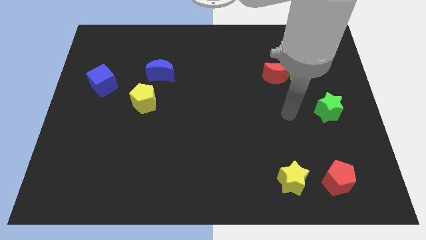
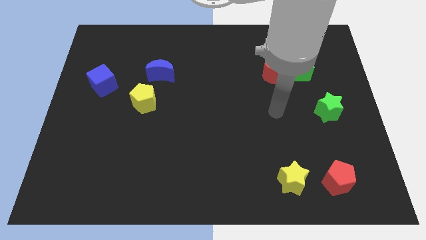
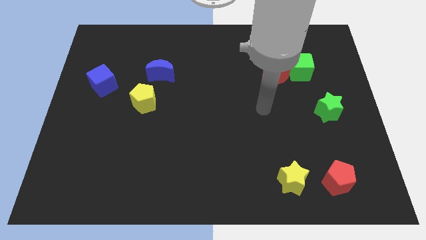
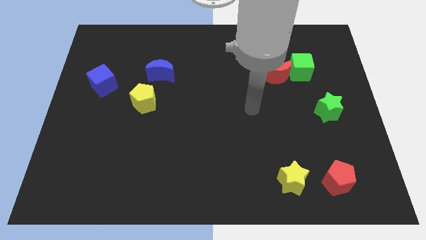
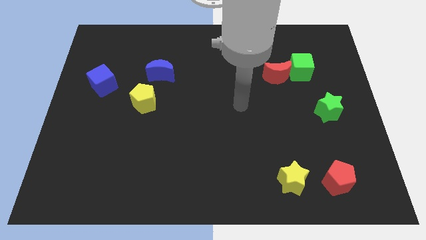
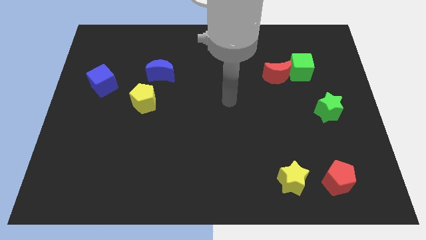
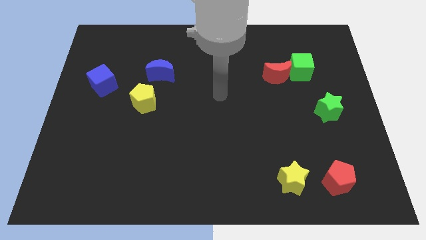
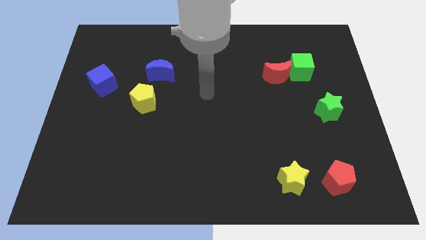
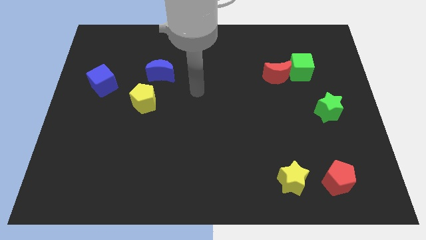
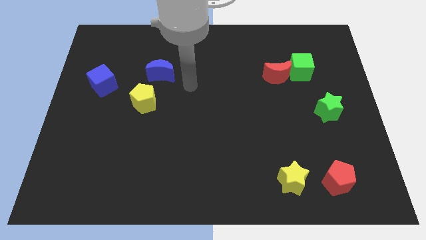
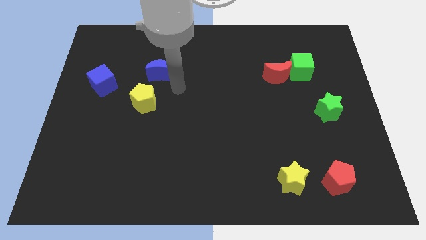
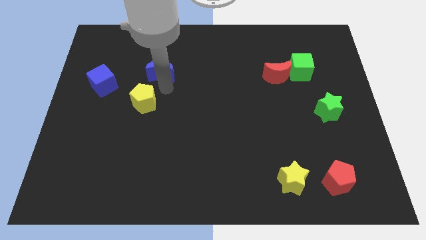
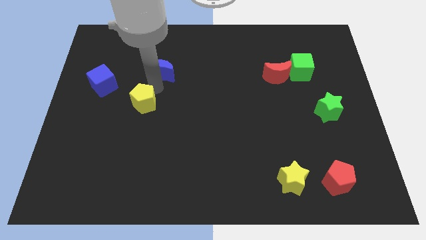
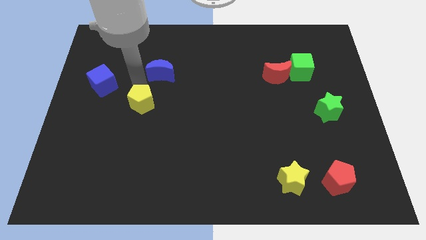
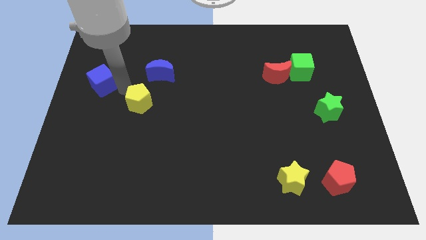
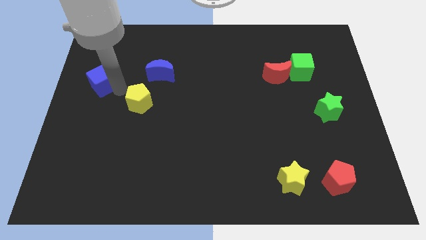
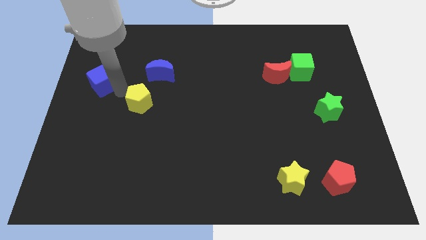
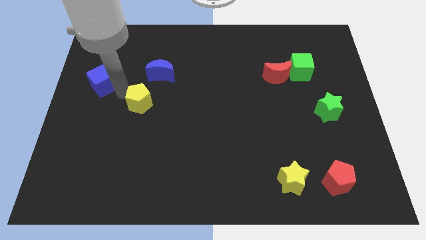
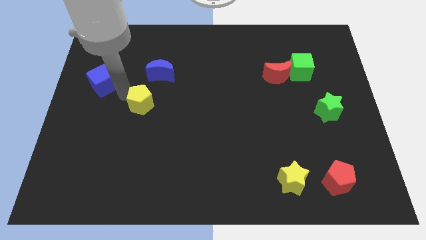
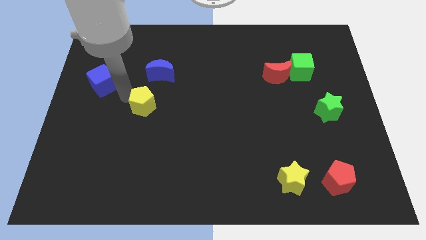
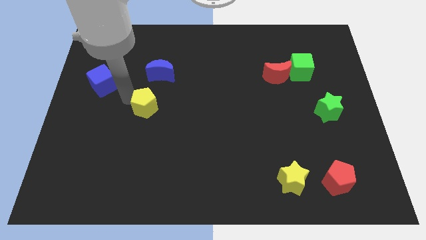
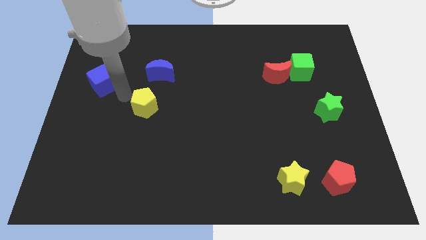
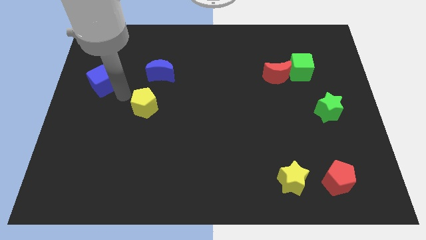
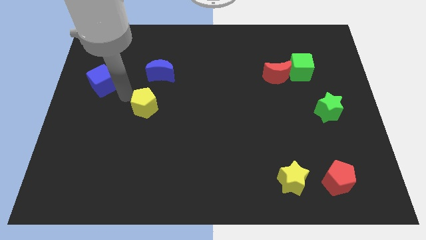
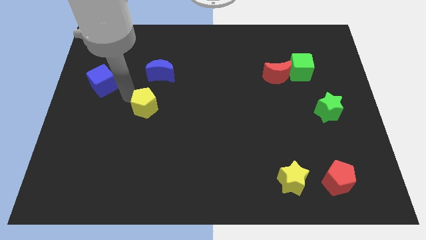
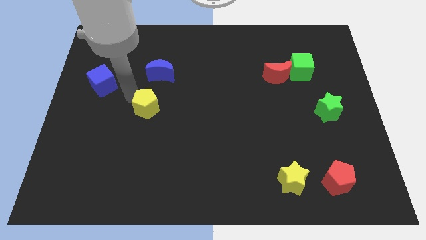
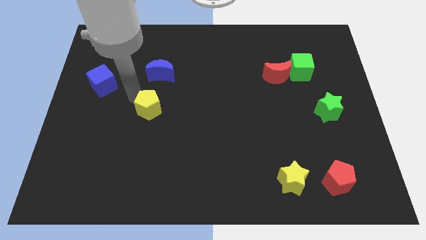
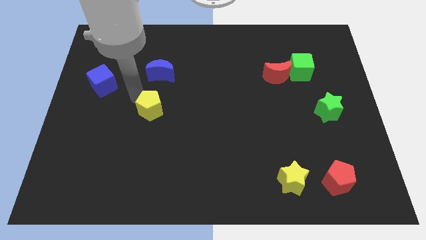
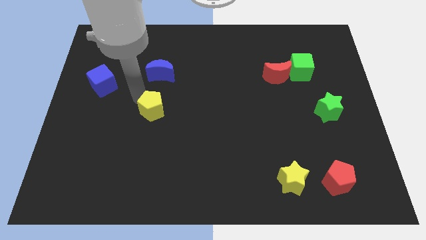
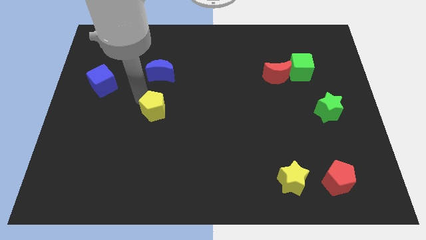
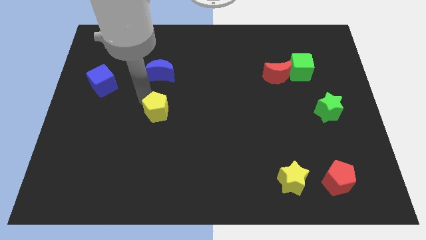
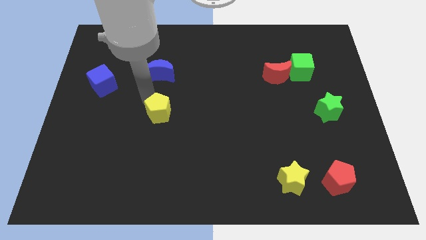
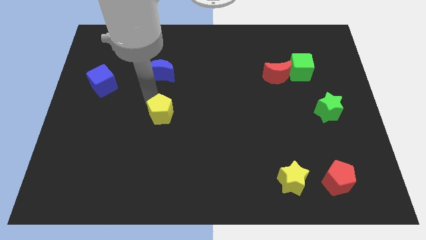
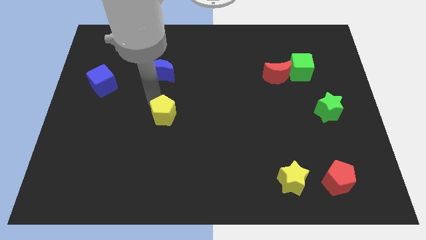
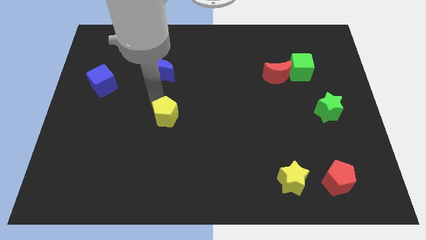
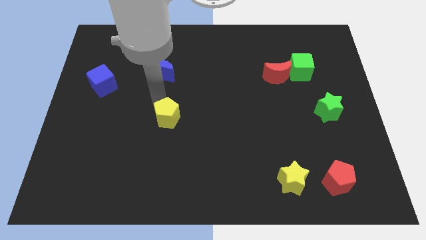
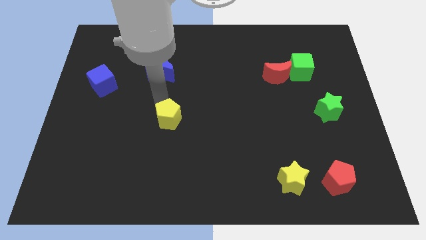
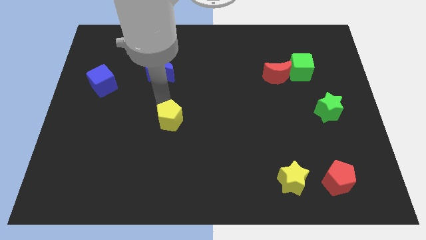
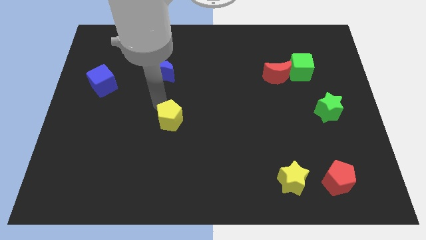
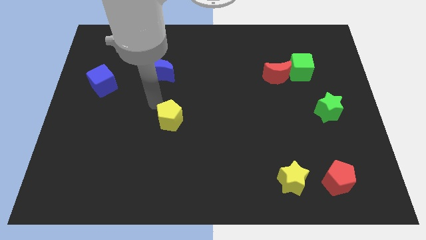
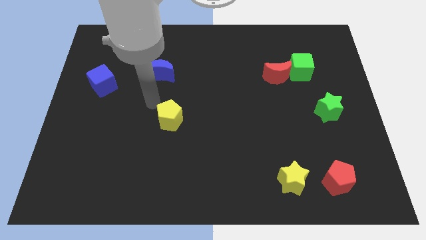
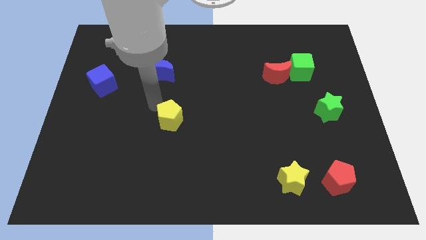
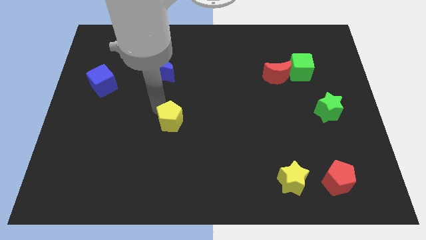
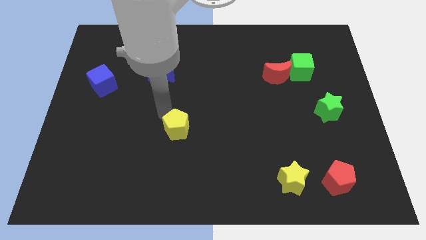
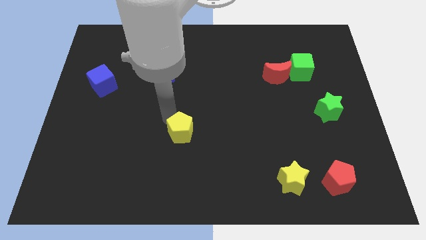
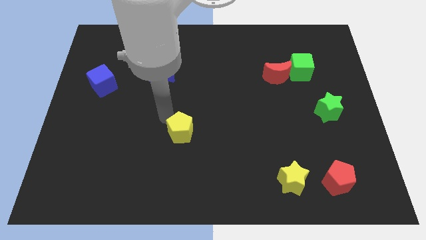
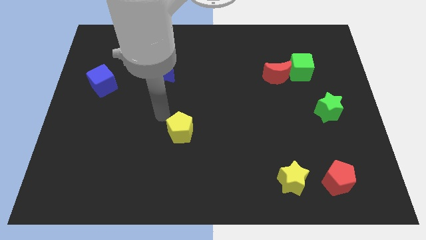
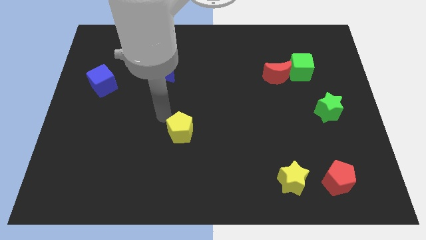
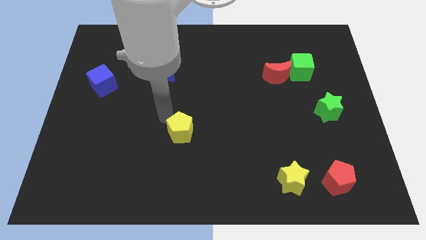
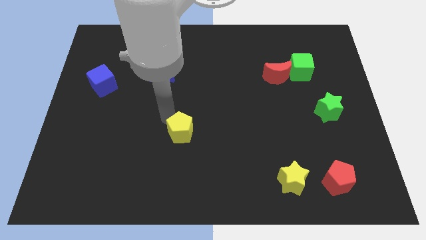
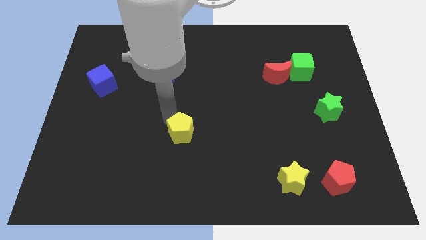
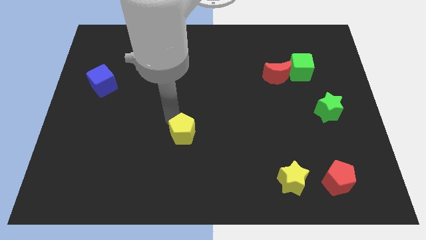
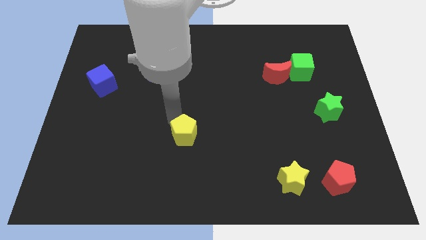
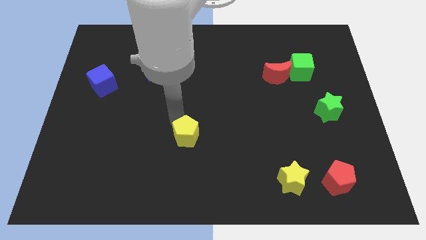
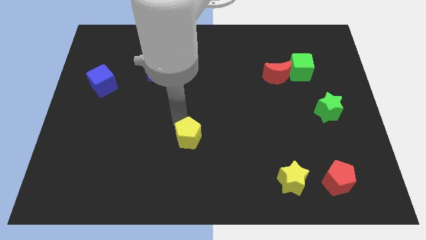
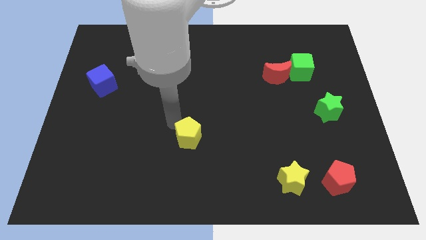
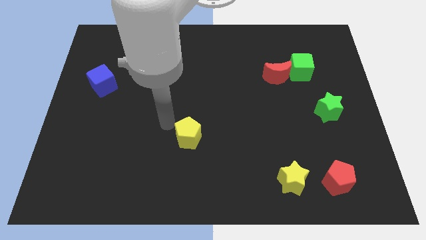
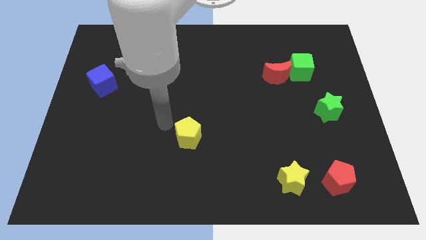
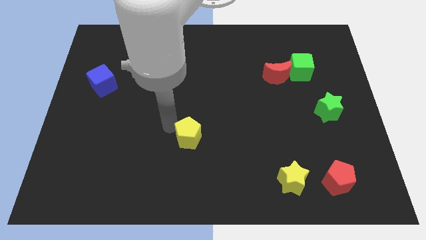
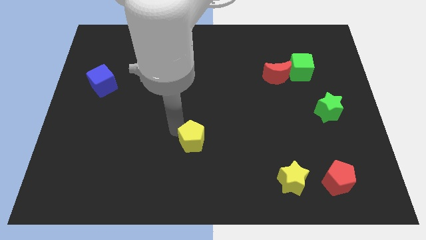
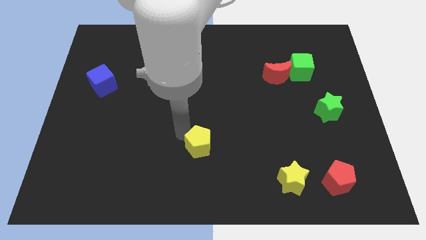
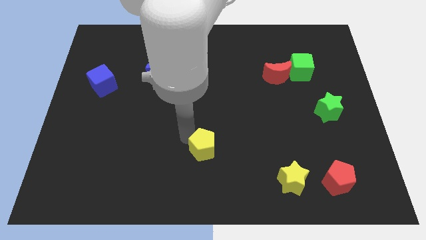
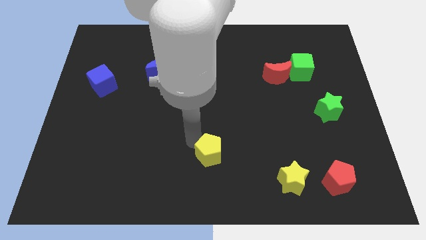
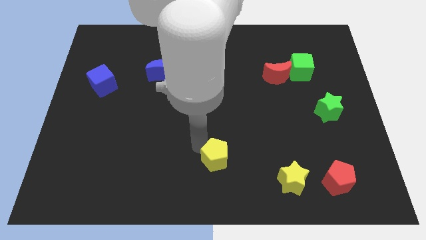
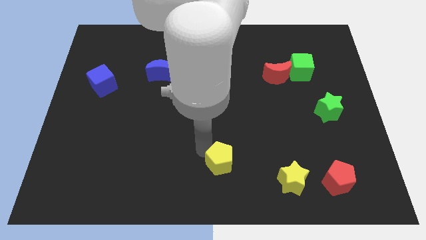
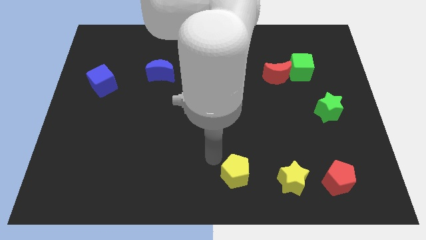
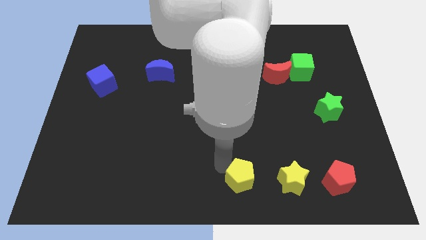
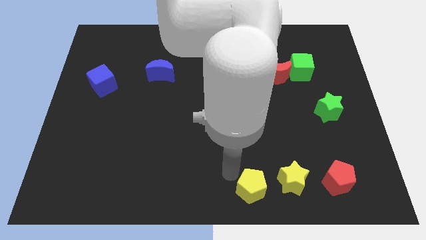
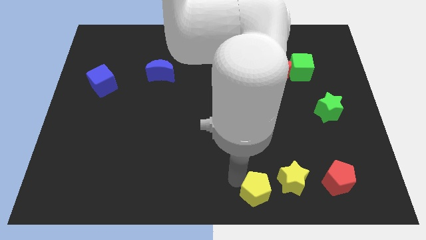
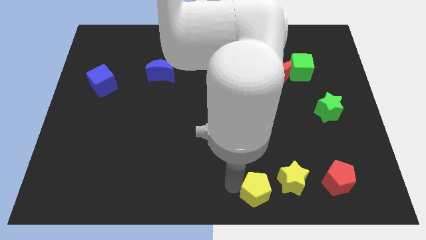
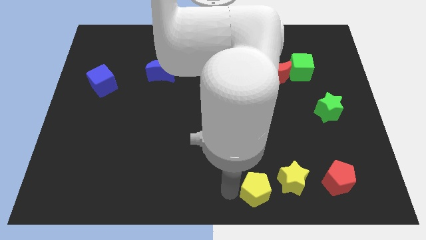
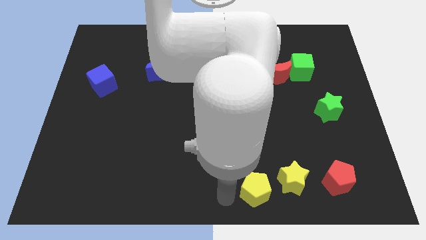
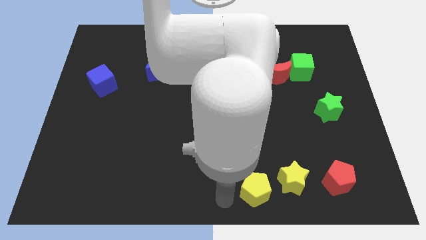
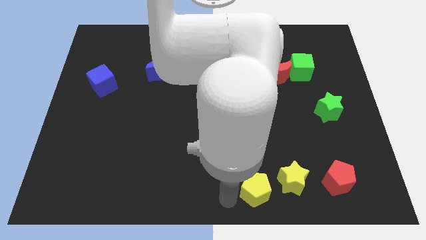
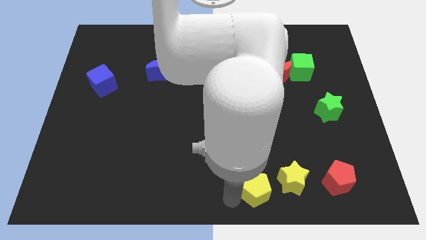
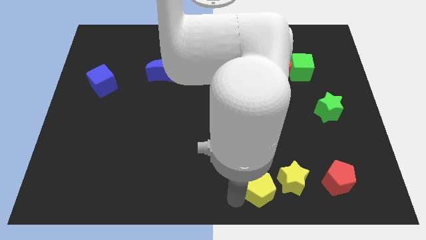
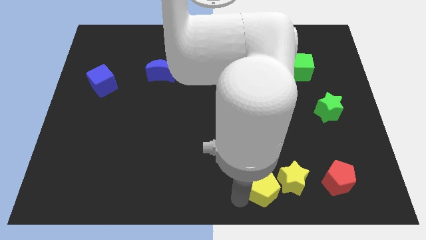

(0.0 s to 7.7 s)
push the yellow pentagon just left of the red pentagon
